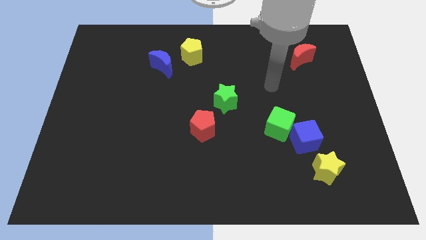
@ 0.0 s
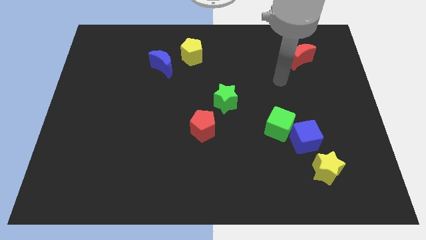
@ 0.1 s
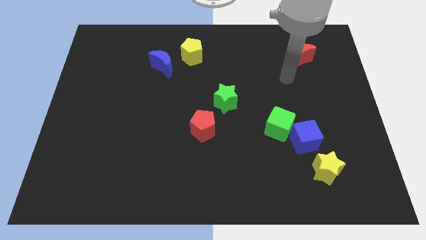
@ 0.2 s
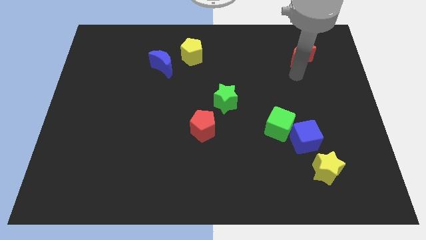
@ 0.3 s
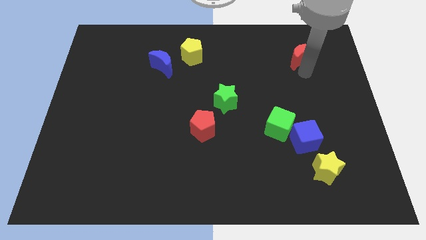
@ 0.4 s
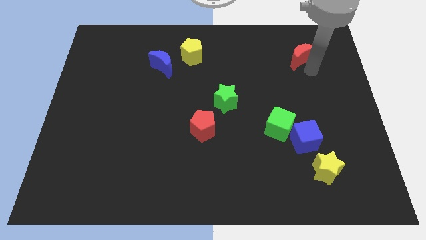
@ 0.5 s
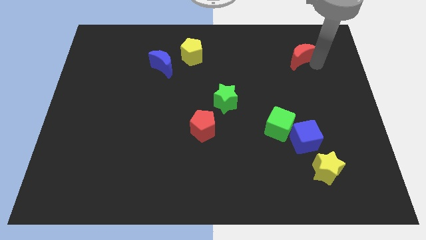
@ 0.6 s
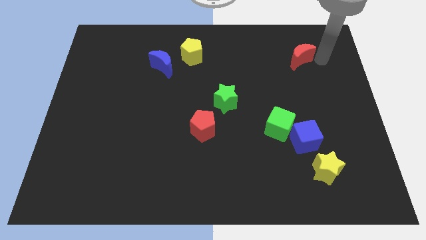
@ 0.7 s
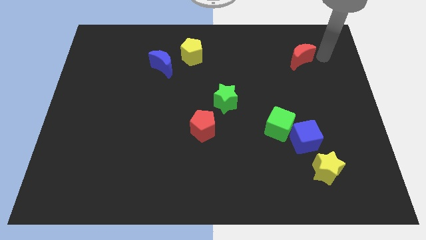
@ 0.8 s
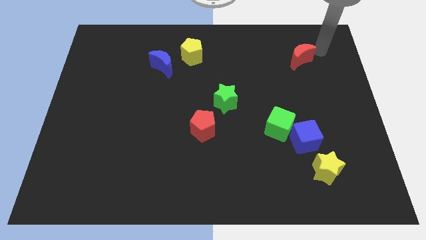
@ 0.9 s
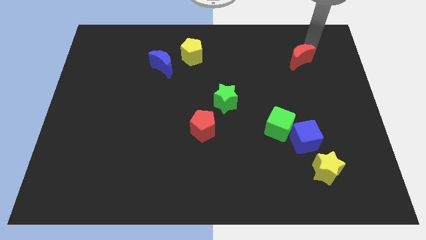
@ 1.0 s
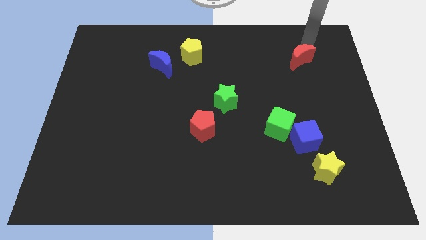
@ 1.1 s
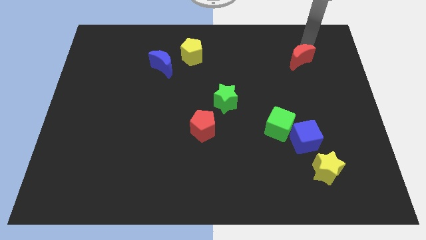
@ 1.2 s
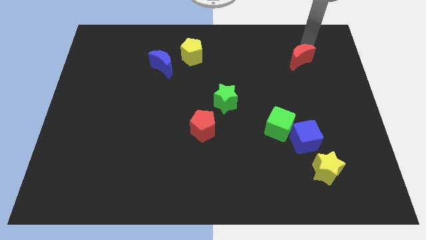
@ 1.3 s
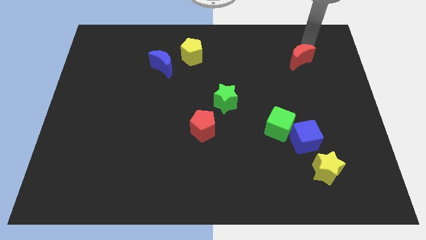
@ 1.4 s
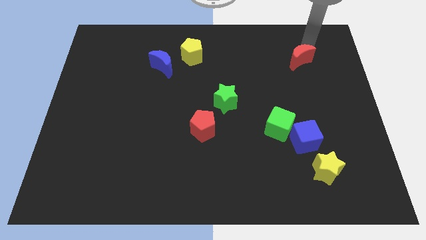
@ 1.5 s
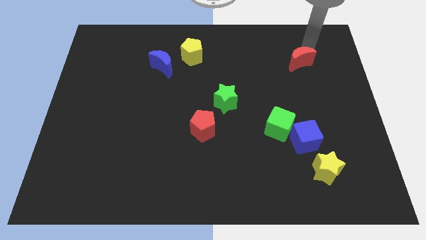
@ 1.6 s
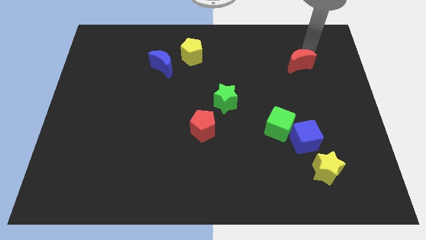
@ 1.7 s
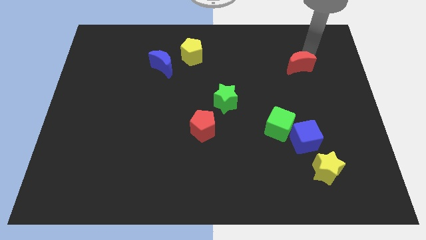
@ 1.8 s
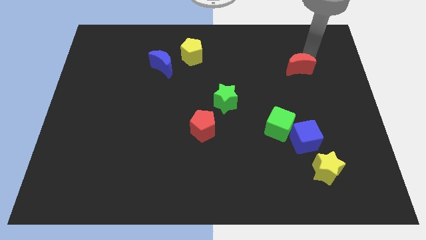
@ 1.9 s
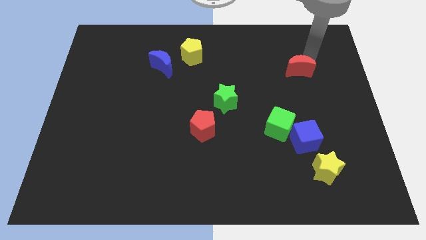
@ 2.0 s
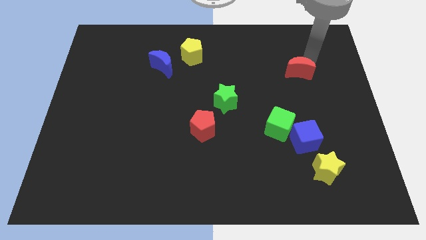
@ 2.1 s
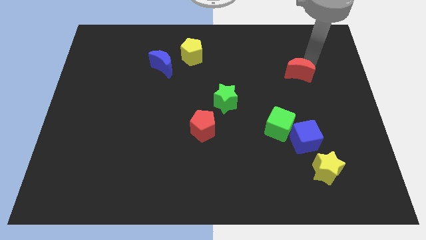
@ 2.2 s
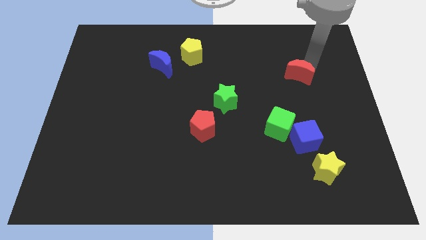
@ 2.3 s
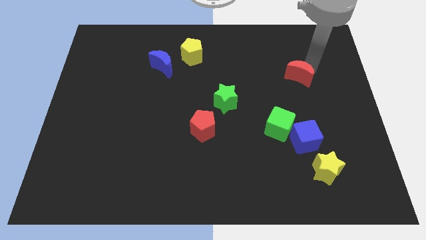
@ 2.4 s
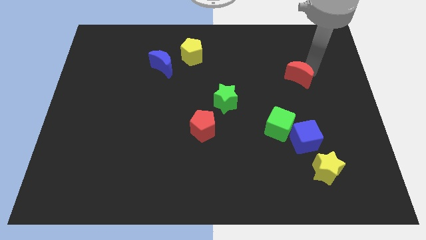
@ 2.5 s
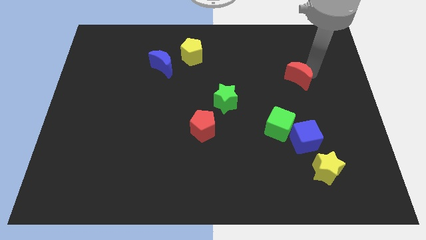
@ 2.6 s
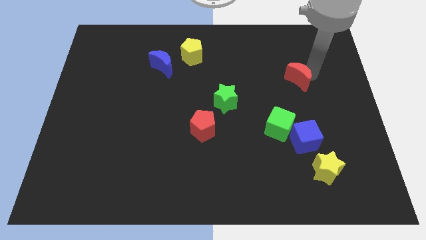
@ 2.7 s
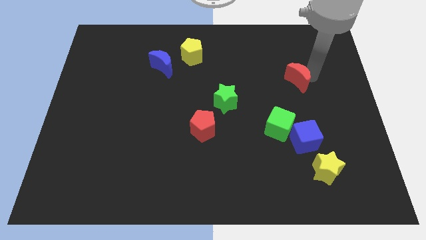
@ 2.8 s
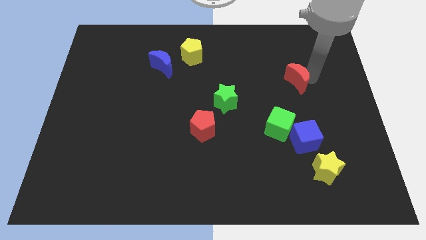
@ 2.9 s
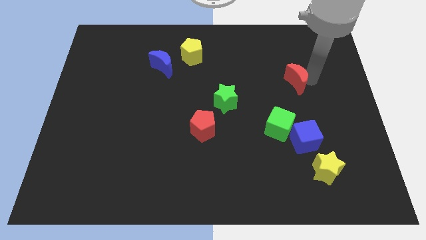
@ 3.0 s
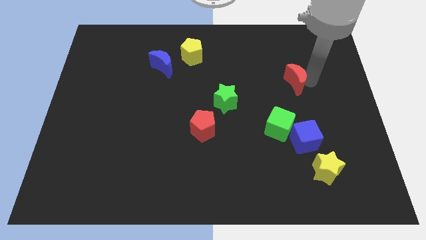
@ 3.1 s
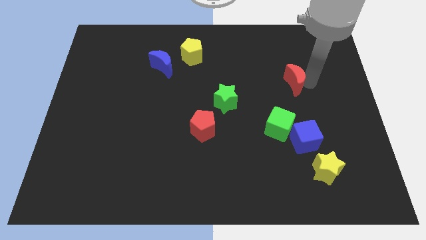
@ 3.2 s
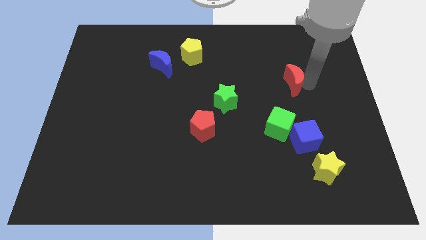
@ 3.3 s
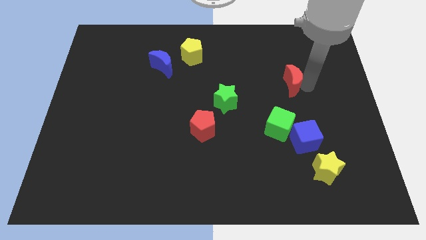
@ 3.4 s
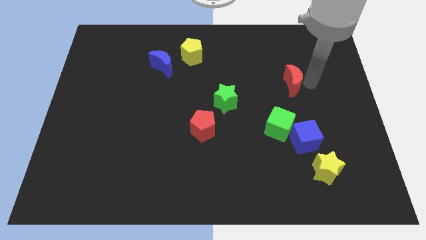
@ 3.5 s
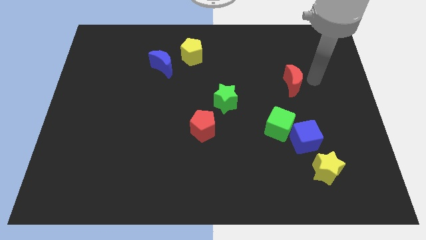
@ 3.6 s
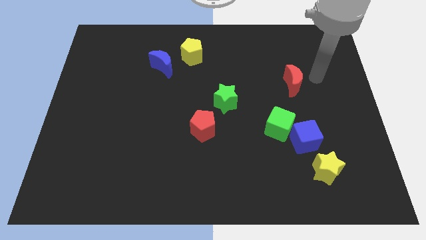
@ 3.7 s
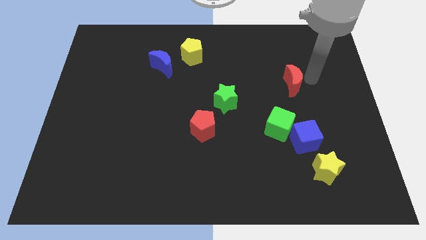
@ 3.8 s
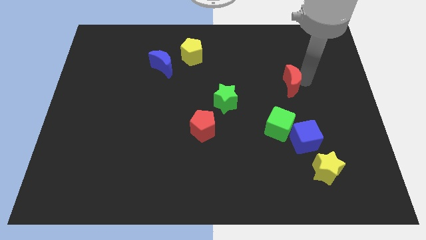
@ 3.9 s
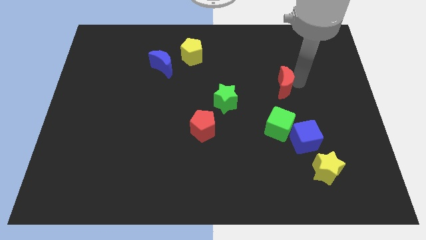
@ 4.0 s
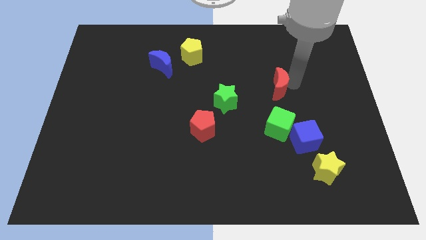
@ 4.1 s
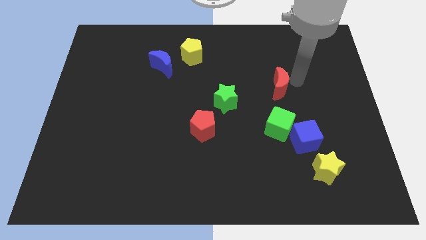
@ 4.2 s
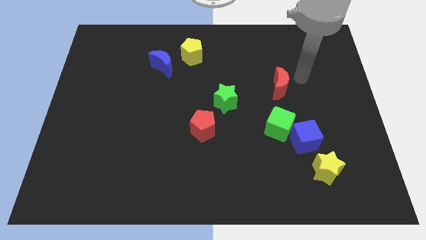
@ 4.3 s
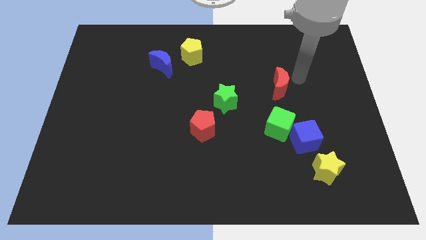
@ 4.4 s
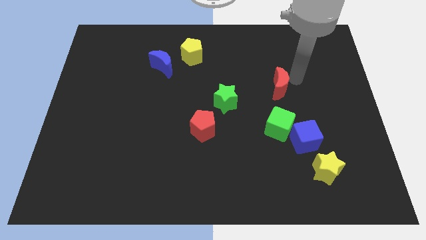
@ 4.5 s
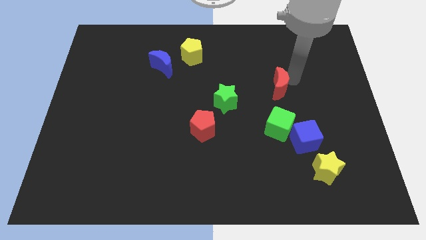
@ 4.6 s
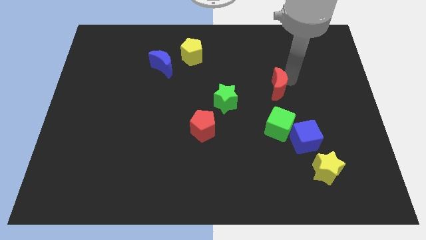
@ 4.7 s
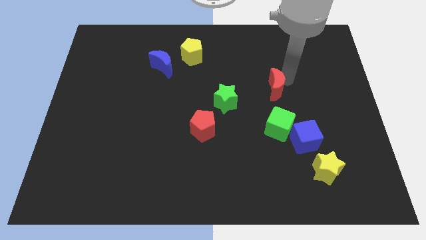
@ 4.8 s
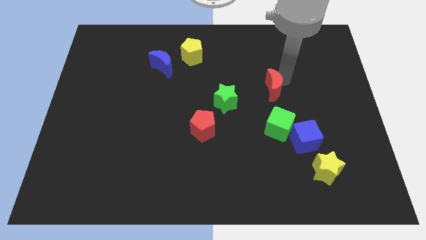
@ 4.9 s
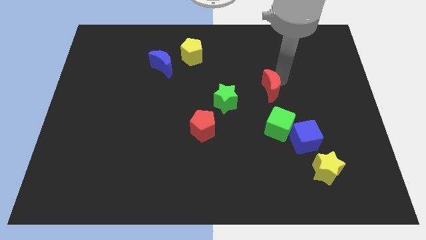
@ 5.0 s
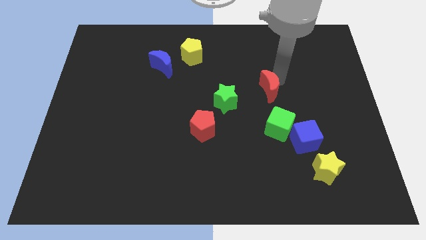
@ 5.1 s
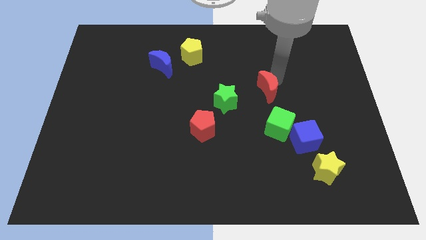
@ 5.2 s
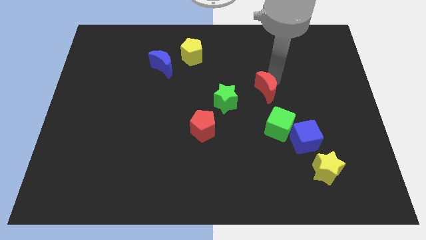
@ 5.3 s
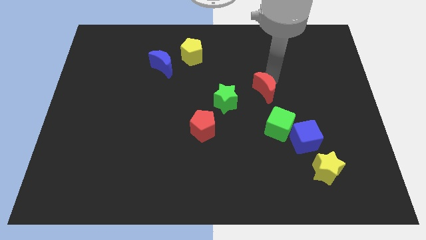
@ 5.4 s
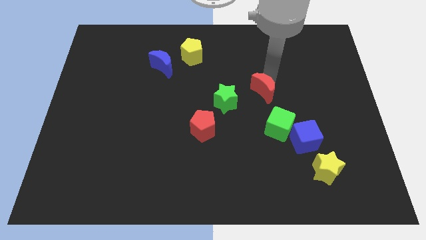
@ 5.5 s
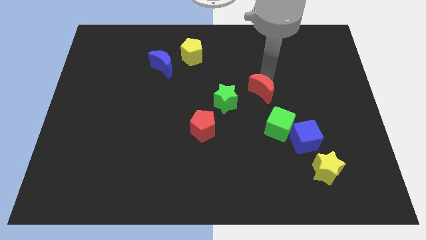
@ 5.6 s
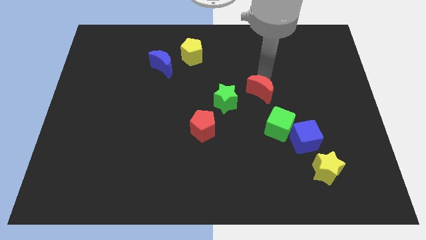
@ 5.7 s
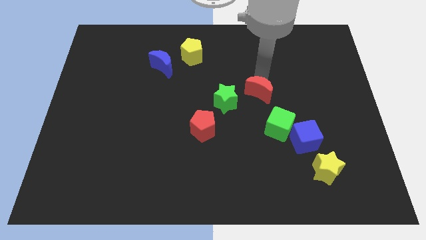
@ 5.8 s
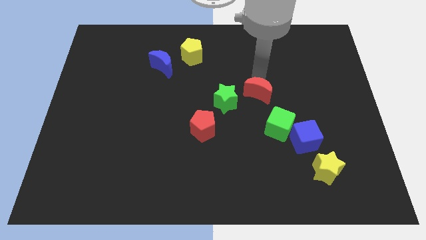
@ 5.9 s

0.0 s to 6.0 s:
slide the red moon to the top left of the green cube
